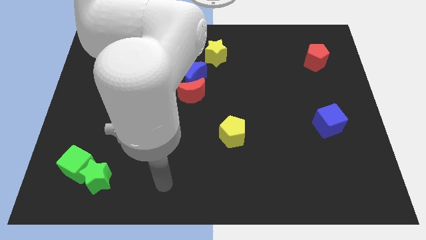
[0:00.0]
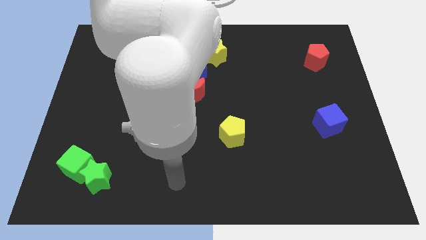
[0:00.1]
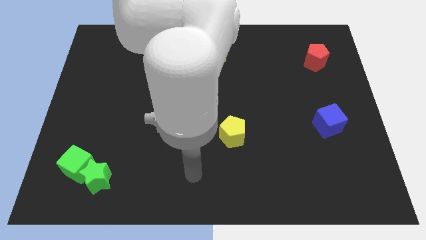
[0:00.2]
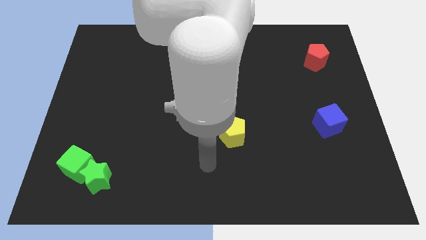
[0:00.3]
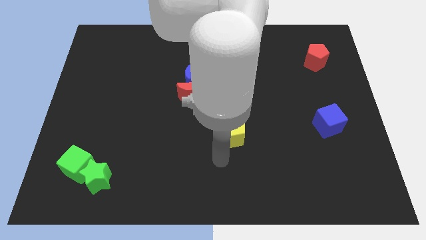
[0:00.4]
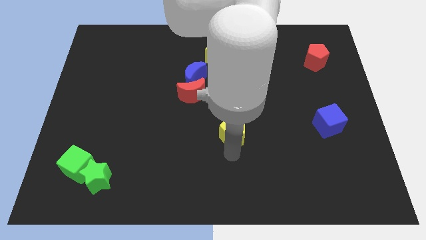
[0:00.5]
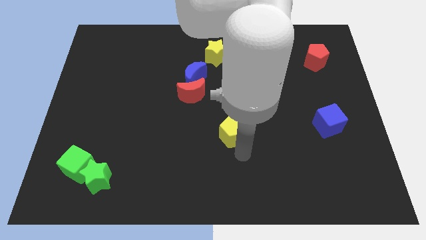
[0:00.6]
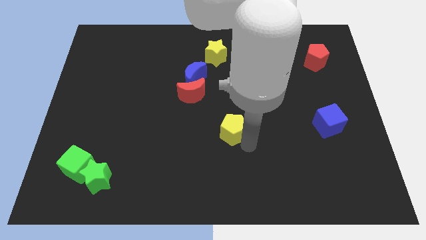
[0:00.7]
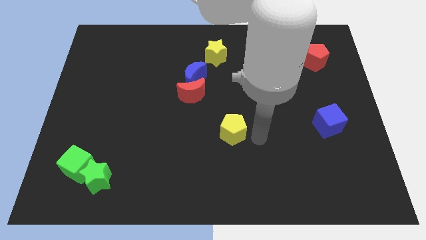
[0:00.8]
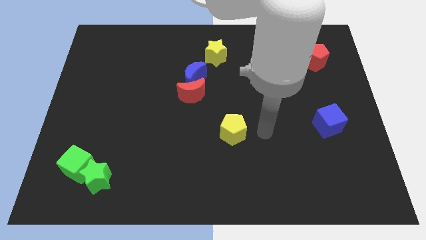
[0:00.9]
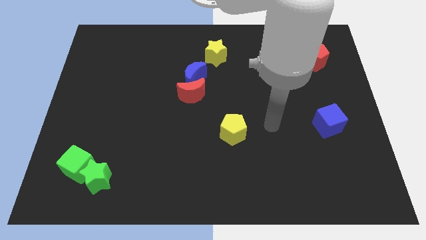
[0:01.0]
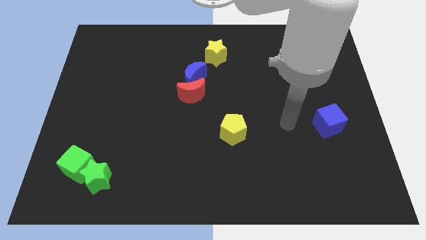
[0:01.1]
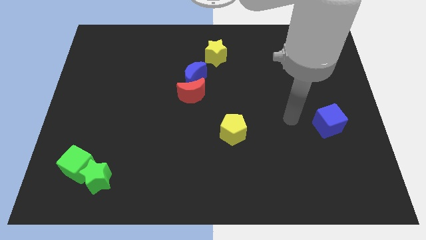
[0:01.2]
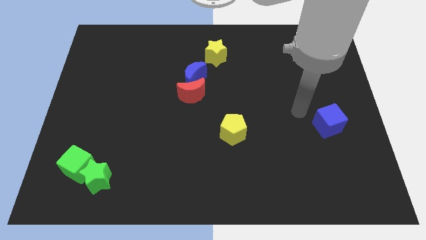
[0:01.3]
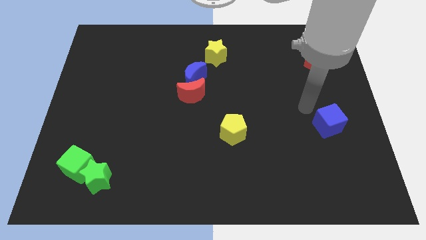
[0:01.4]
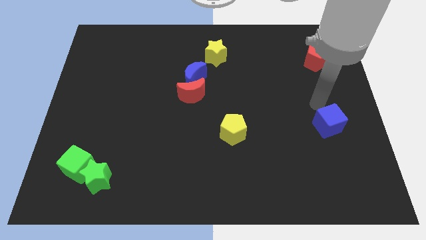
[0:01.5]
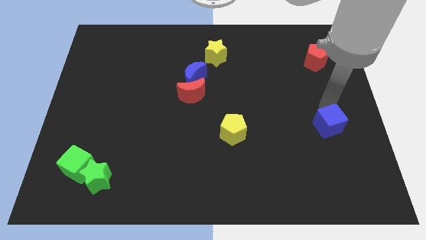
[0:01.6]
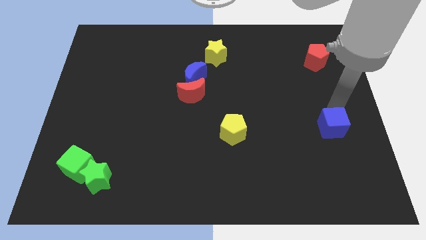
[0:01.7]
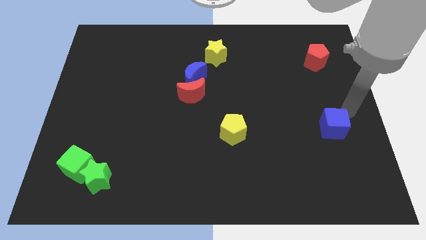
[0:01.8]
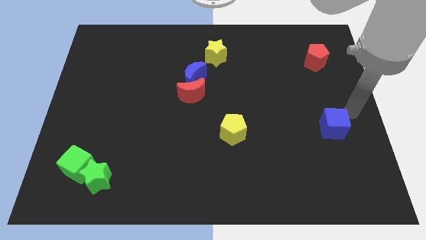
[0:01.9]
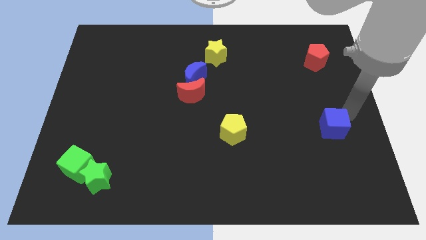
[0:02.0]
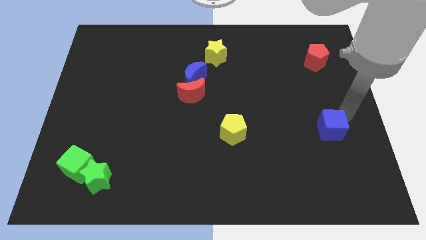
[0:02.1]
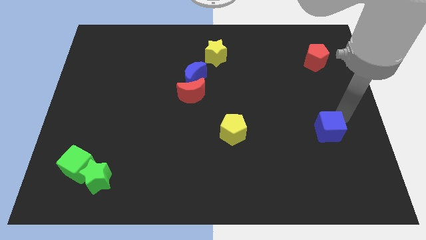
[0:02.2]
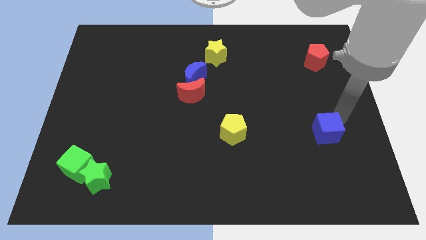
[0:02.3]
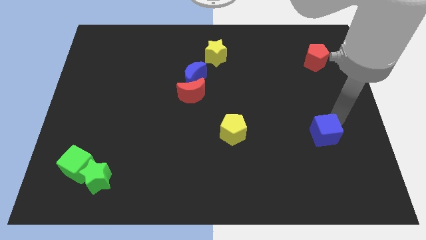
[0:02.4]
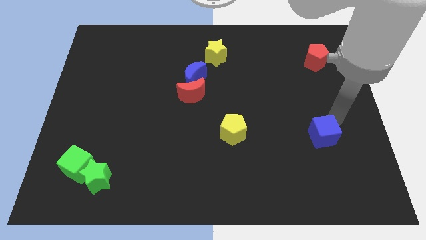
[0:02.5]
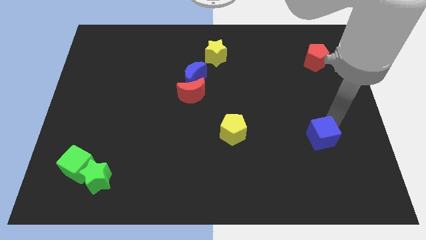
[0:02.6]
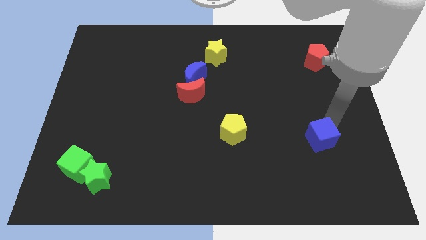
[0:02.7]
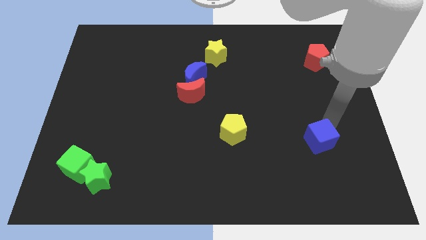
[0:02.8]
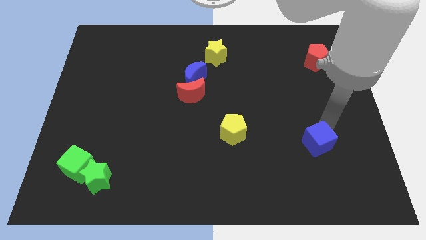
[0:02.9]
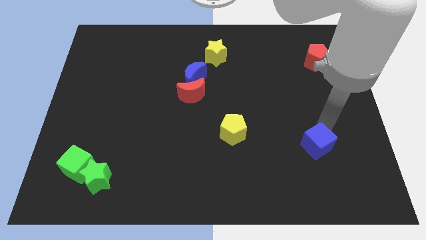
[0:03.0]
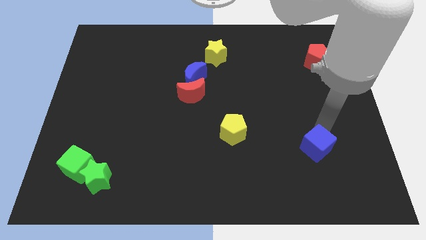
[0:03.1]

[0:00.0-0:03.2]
slightly push the blue cube down and then left

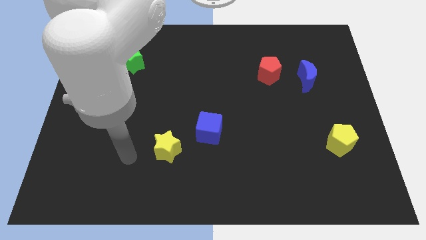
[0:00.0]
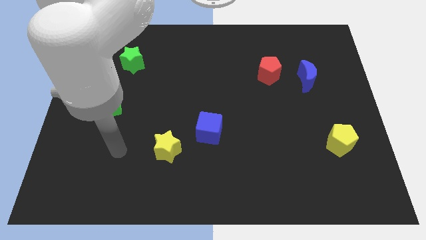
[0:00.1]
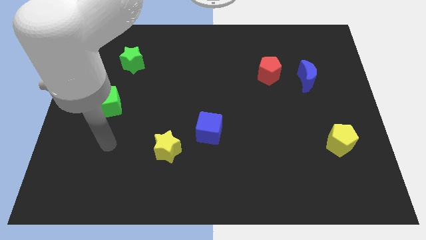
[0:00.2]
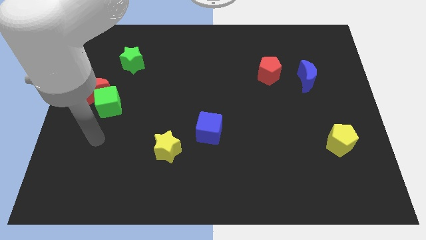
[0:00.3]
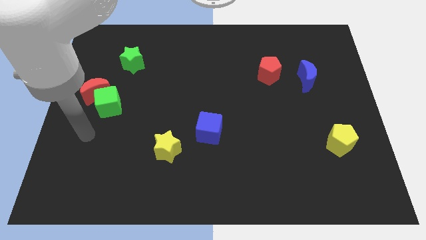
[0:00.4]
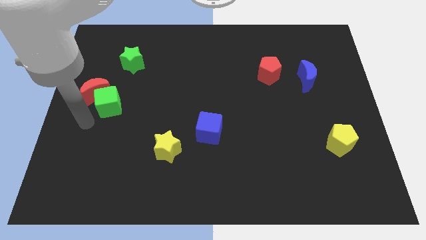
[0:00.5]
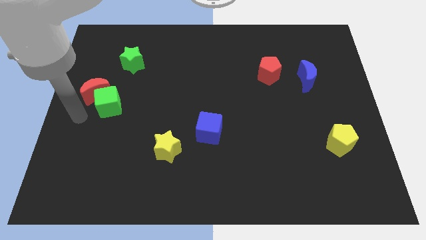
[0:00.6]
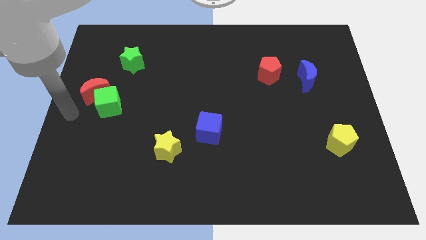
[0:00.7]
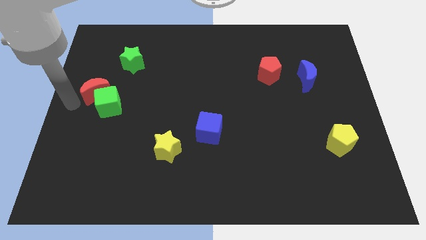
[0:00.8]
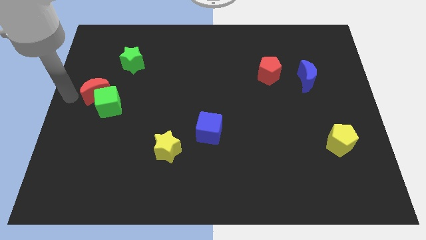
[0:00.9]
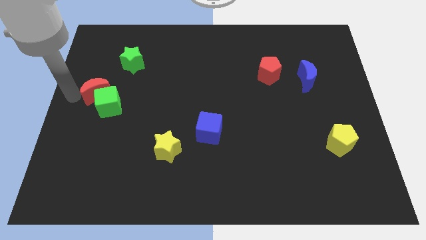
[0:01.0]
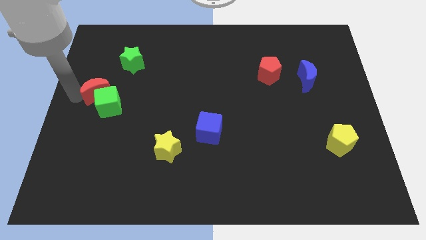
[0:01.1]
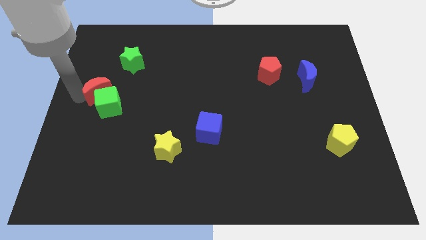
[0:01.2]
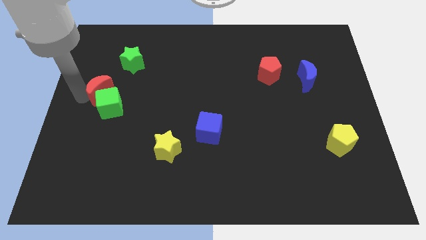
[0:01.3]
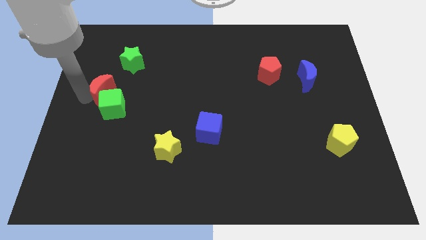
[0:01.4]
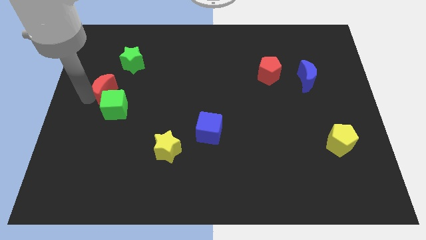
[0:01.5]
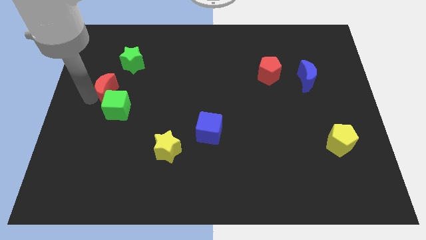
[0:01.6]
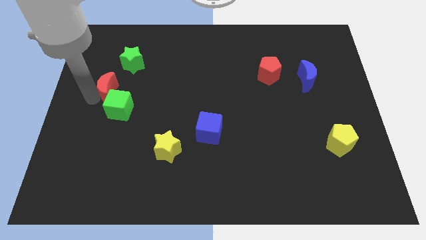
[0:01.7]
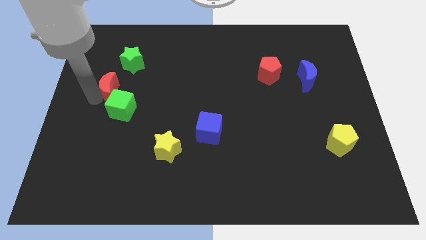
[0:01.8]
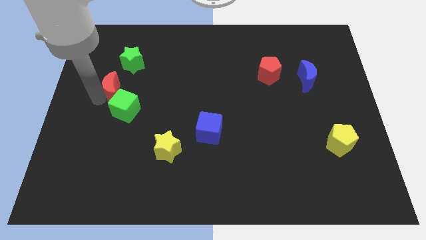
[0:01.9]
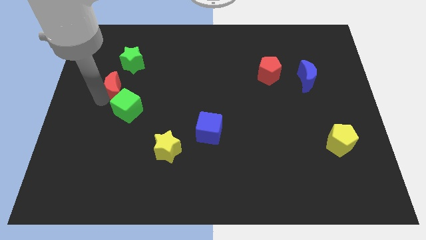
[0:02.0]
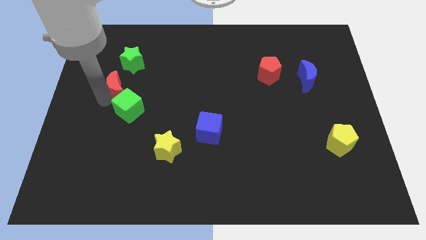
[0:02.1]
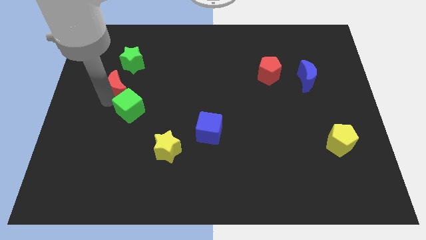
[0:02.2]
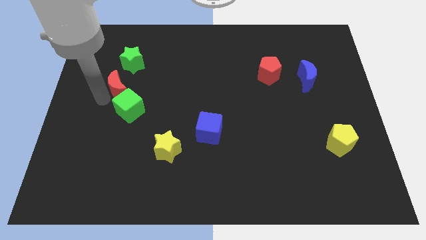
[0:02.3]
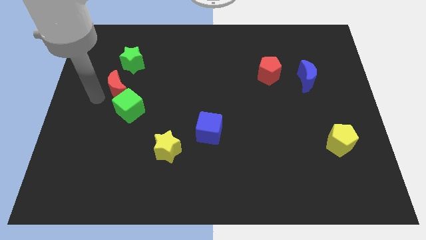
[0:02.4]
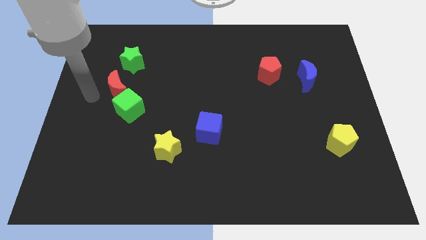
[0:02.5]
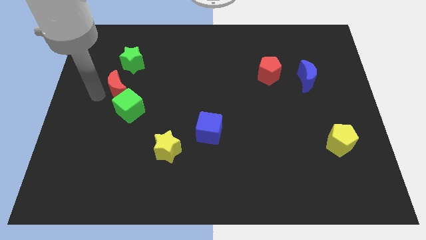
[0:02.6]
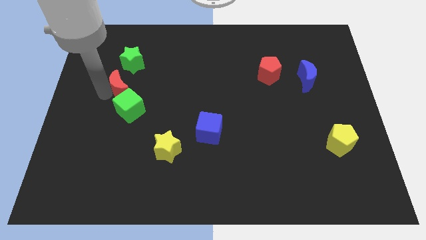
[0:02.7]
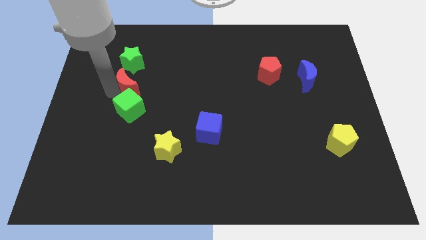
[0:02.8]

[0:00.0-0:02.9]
slide the red moon to the right a little

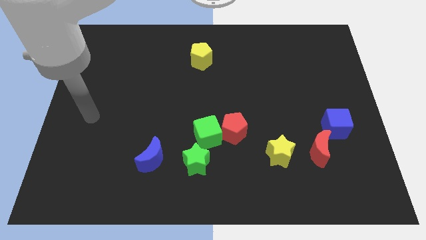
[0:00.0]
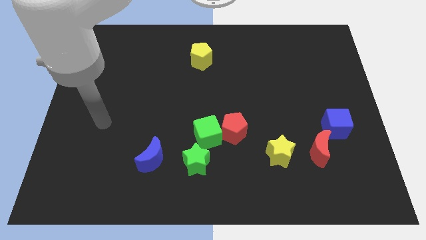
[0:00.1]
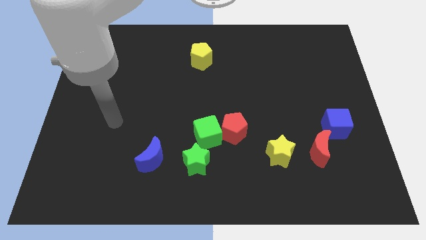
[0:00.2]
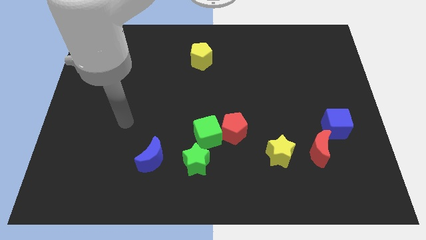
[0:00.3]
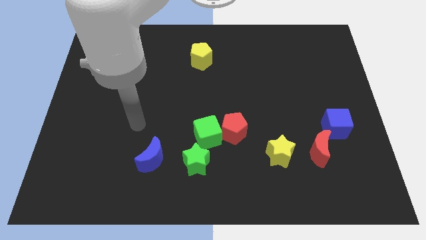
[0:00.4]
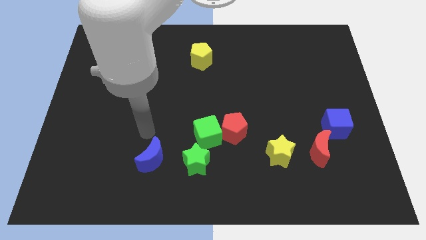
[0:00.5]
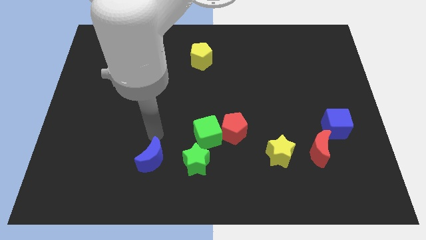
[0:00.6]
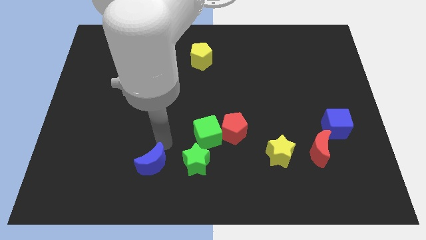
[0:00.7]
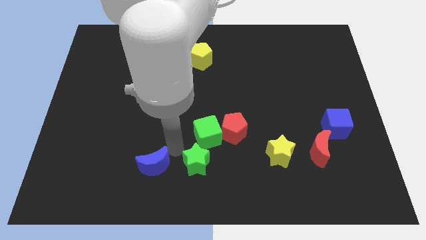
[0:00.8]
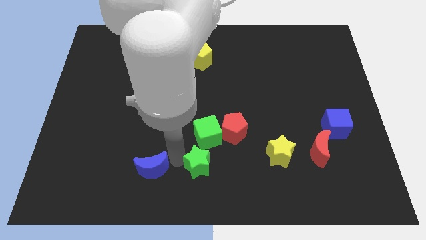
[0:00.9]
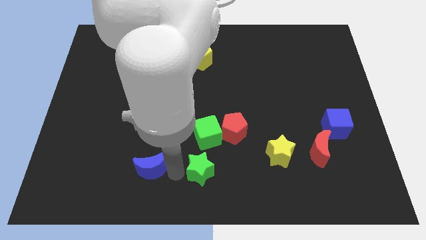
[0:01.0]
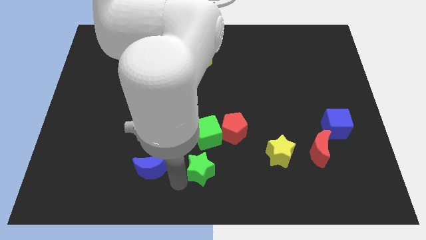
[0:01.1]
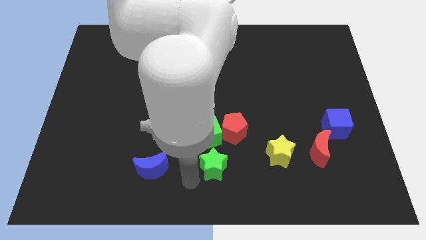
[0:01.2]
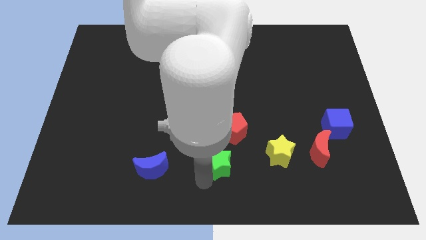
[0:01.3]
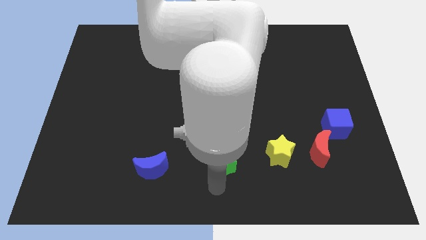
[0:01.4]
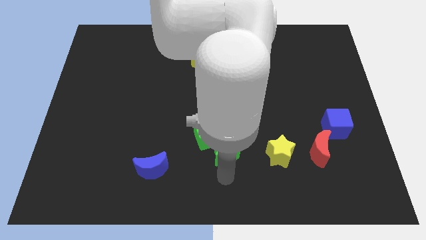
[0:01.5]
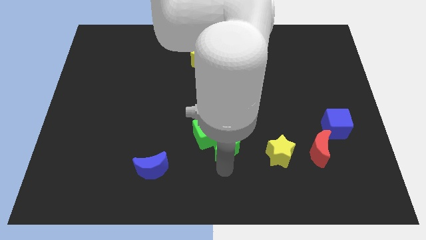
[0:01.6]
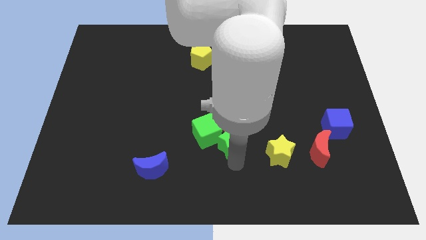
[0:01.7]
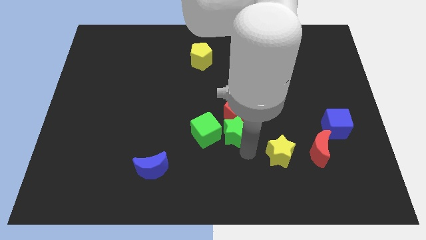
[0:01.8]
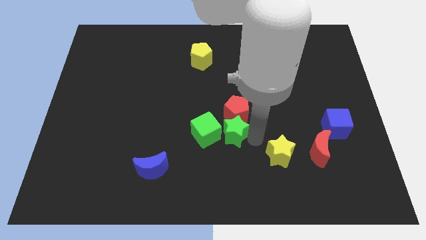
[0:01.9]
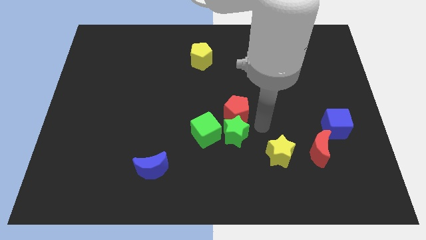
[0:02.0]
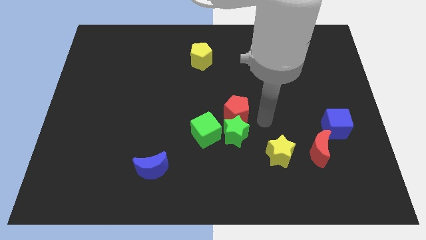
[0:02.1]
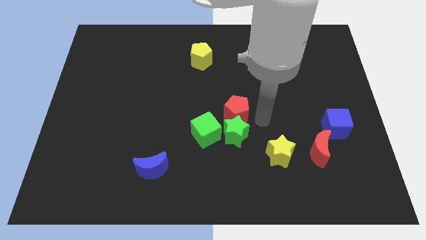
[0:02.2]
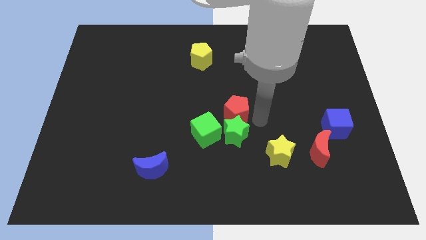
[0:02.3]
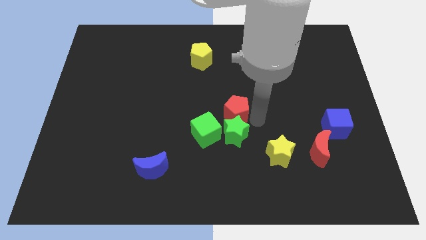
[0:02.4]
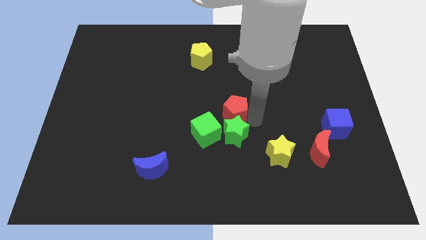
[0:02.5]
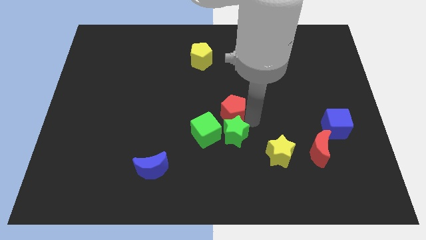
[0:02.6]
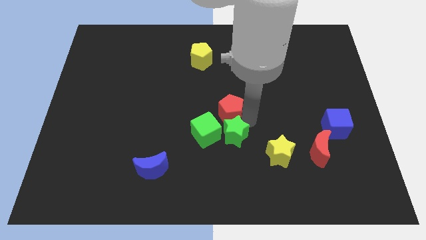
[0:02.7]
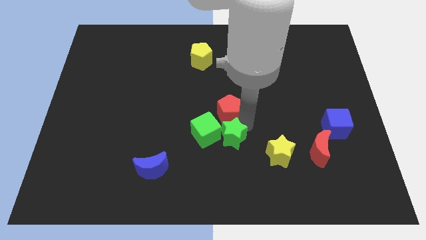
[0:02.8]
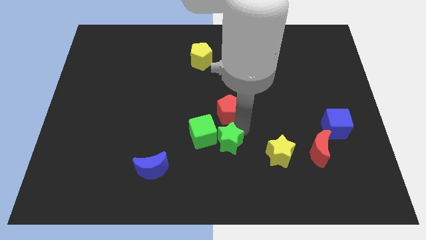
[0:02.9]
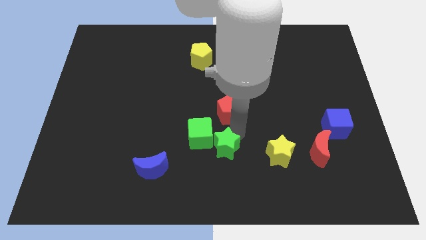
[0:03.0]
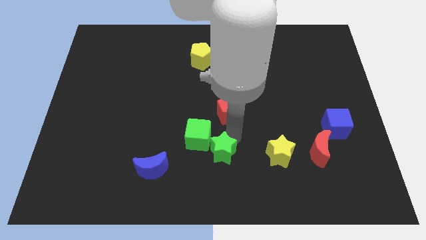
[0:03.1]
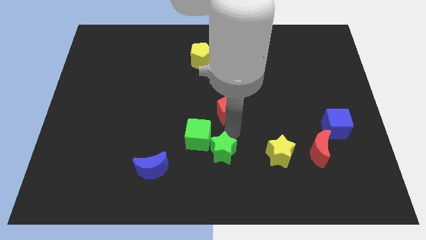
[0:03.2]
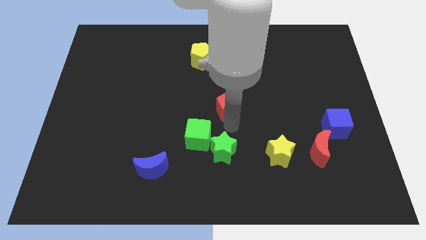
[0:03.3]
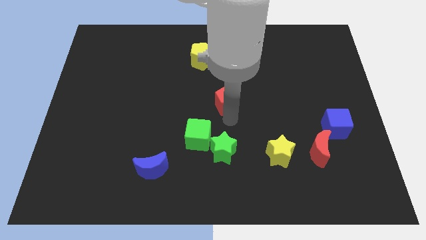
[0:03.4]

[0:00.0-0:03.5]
slide the red pentagon a bit up
